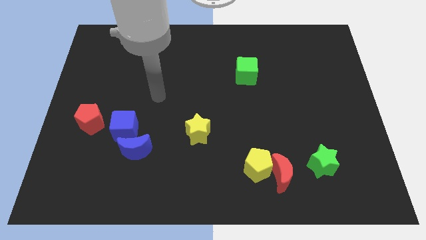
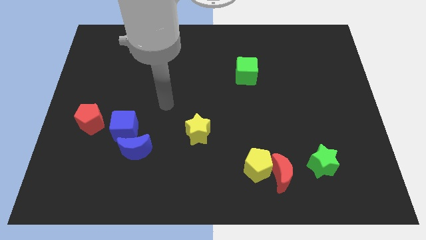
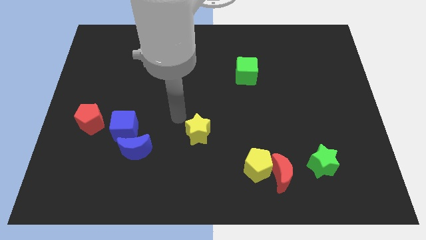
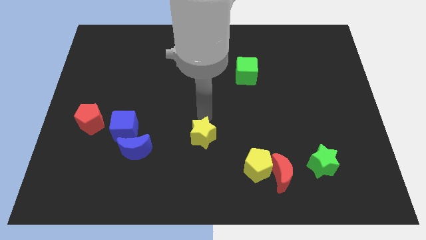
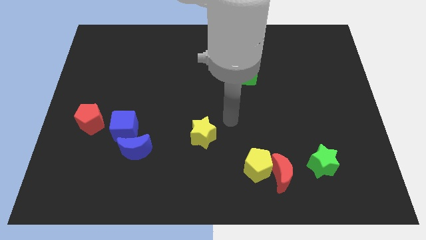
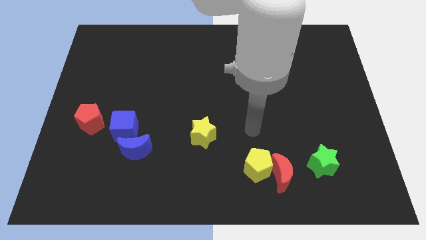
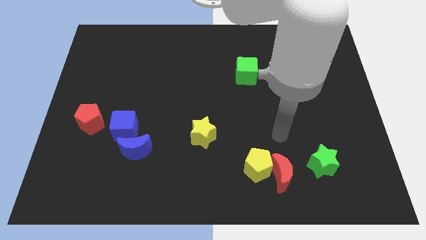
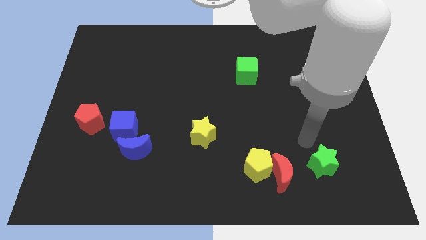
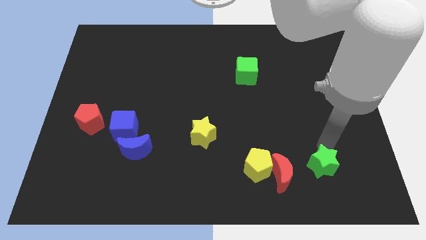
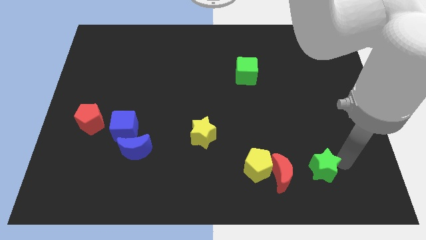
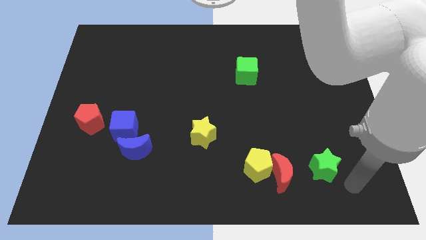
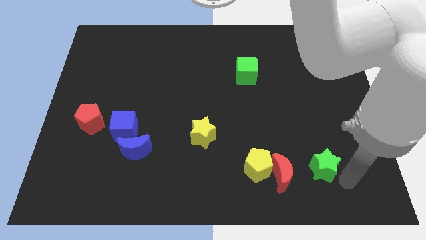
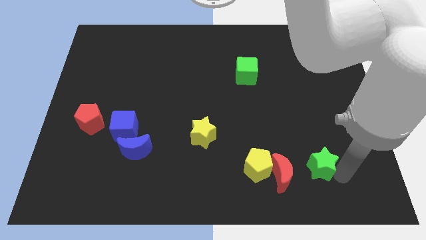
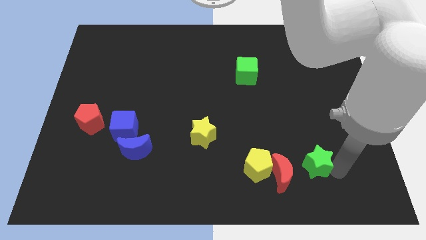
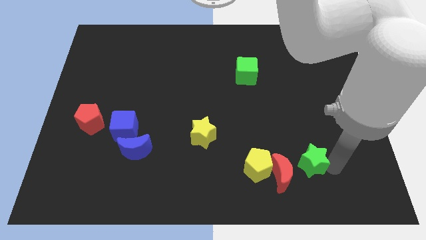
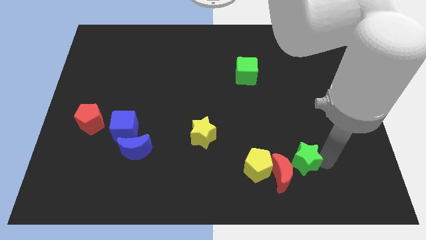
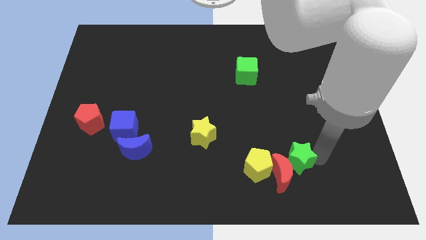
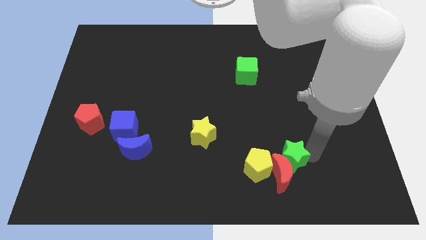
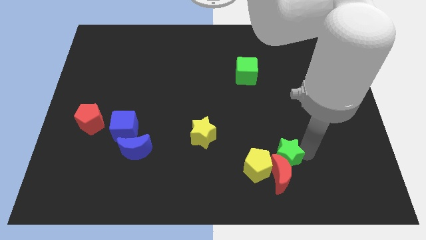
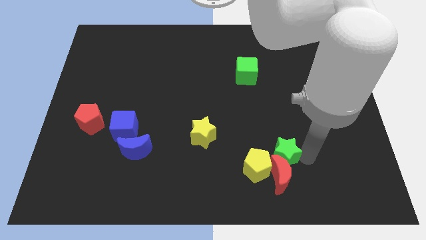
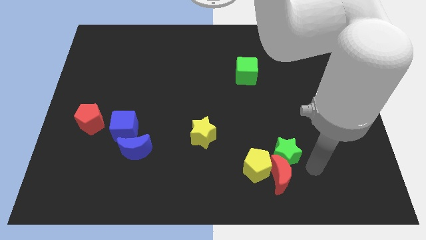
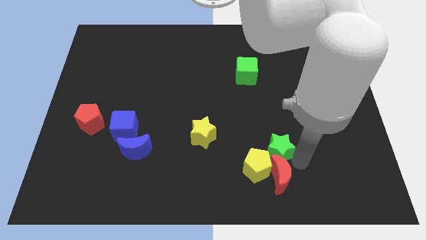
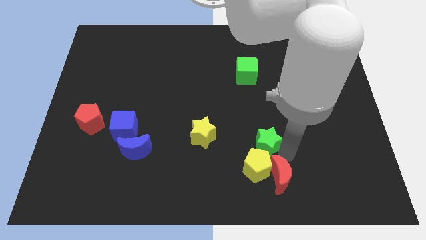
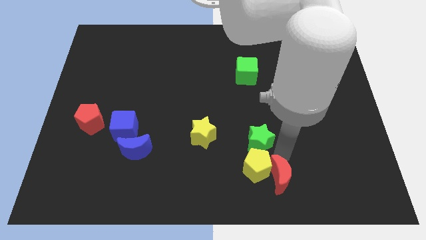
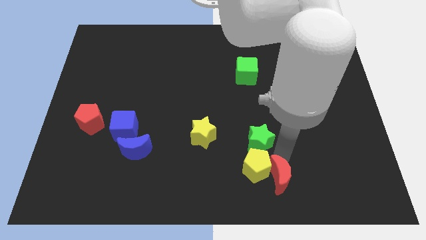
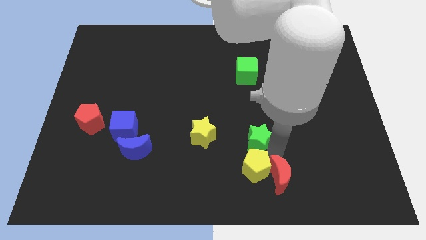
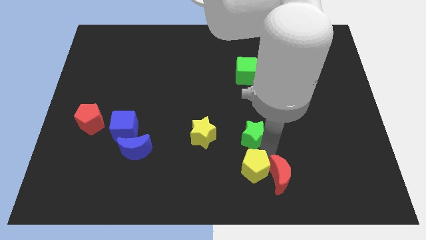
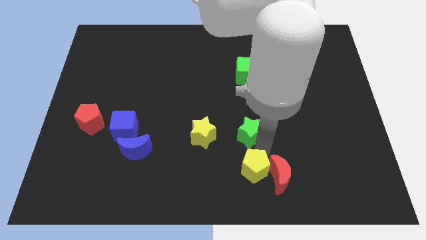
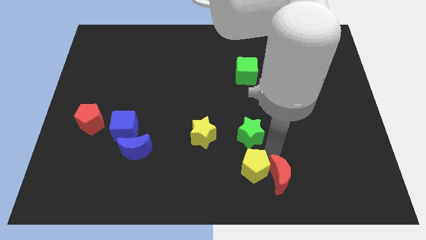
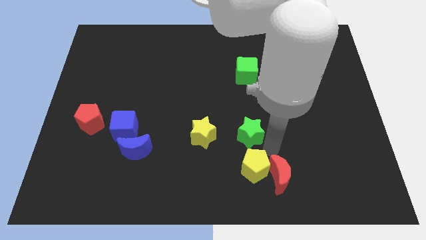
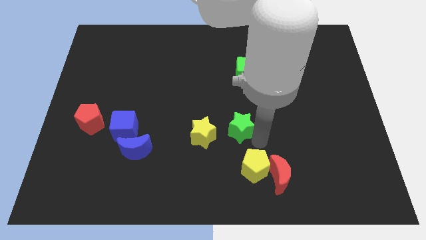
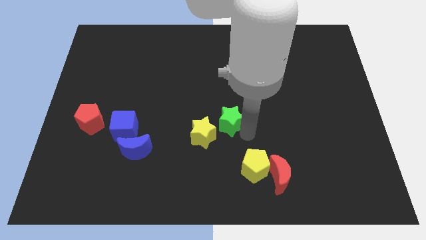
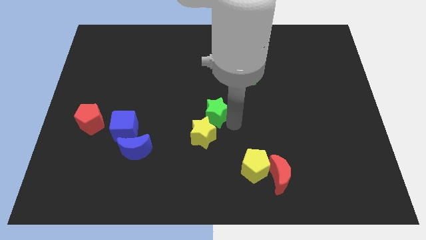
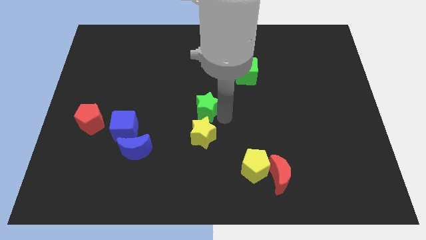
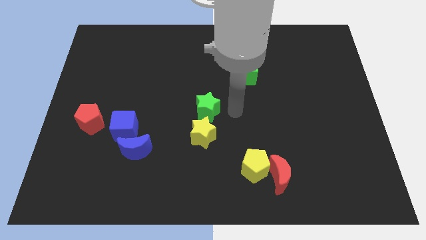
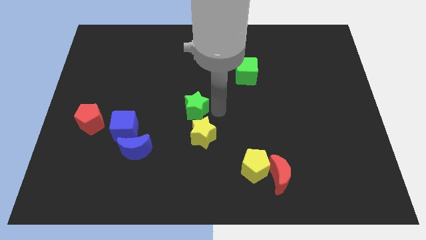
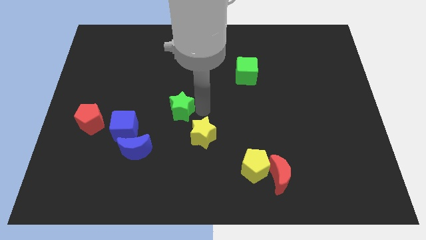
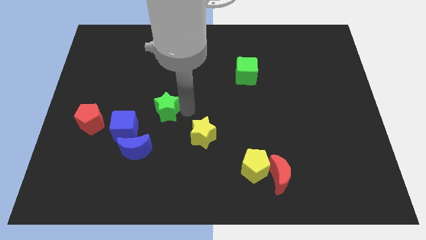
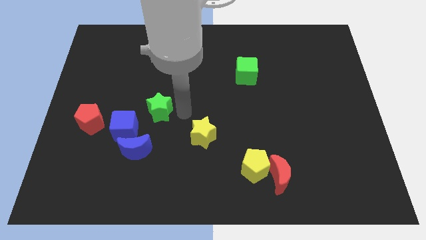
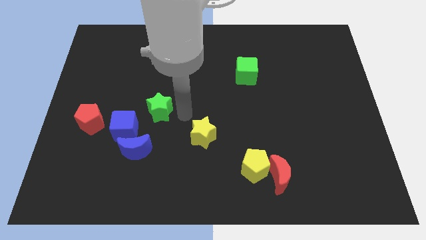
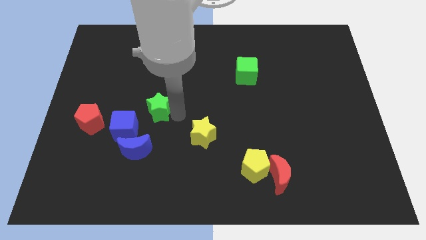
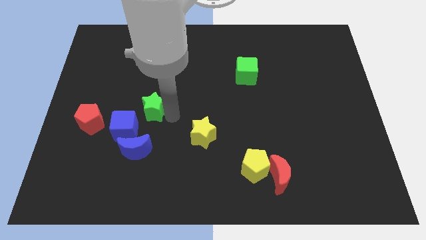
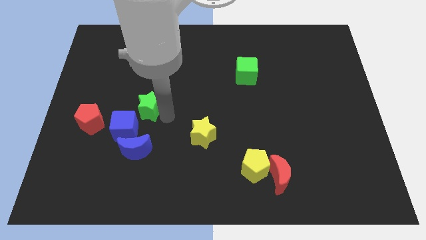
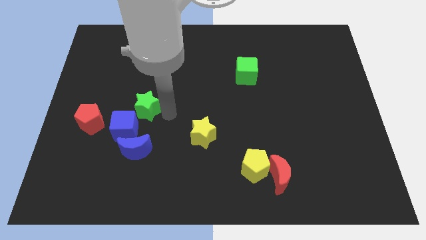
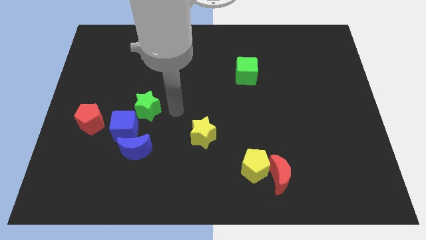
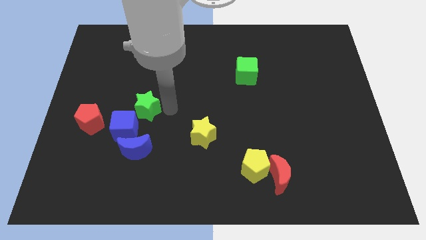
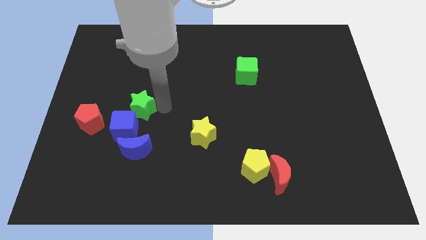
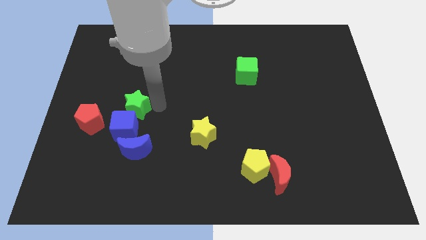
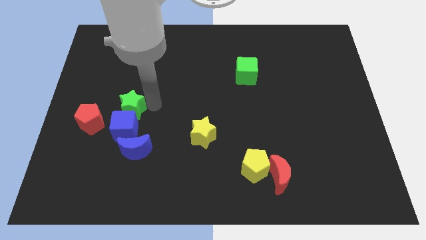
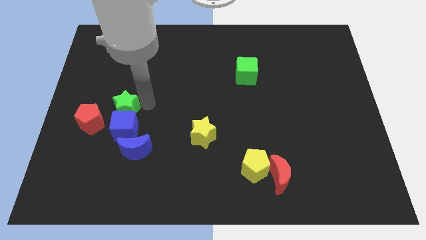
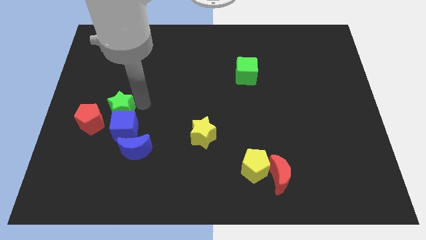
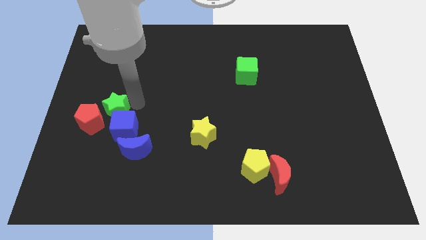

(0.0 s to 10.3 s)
move the green star close to the red pentagon

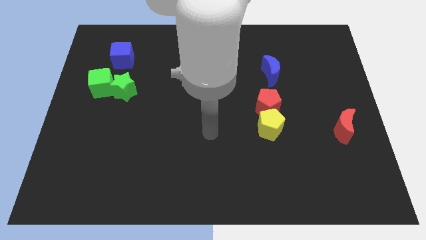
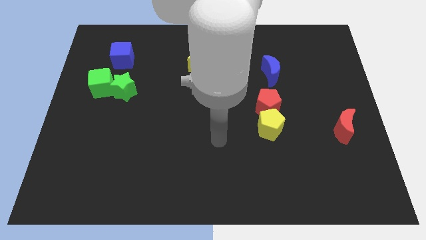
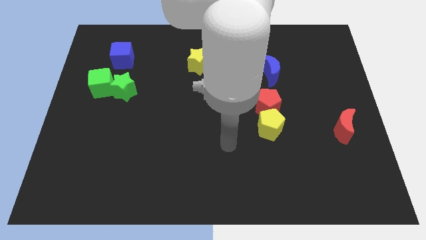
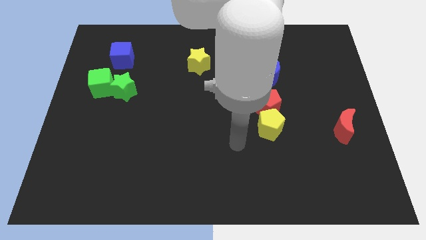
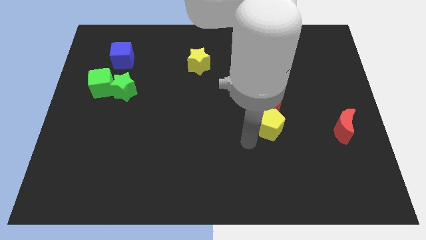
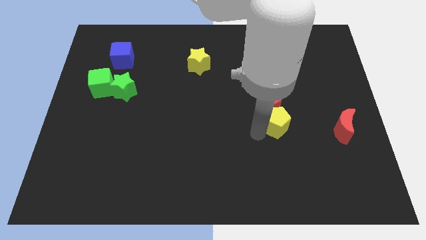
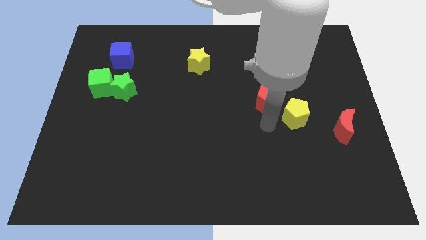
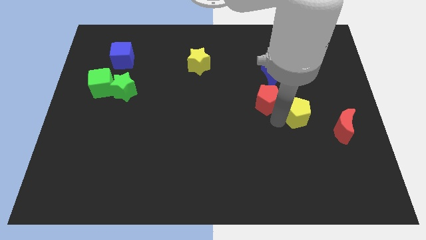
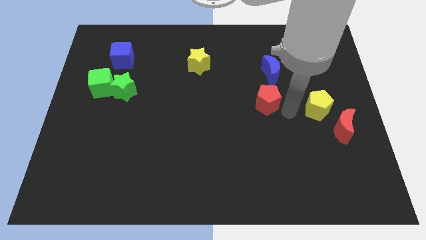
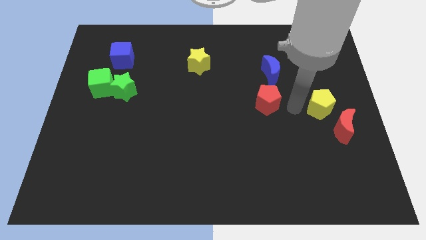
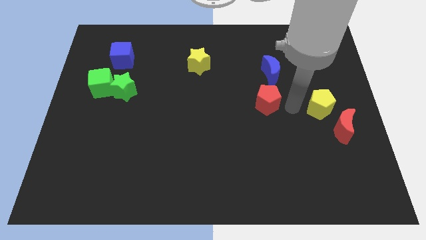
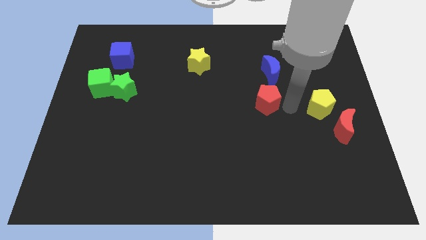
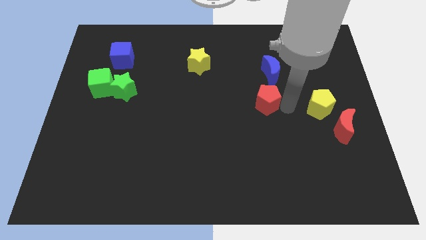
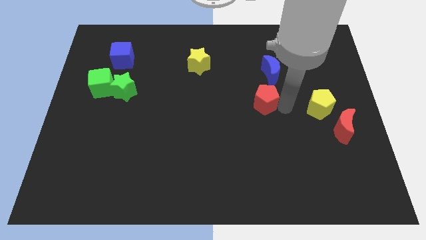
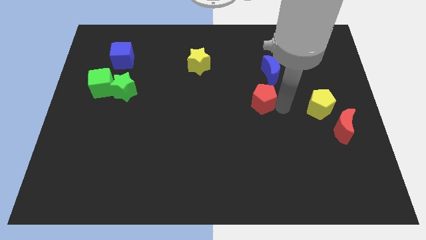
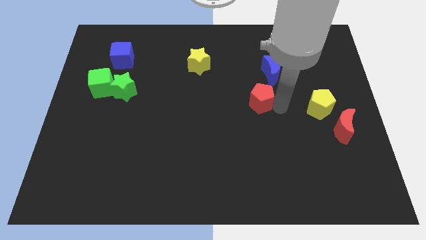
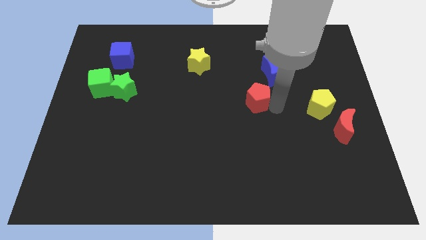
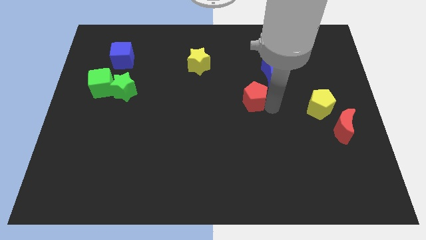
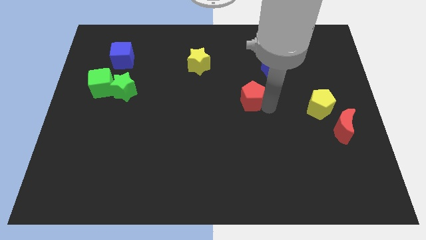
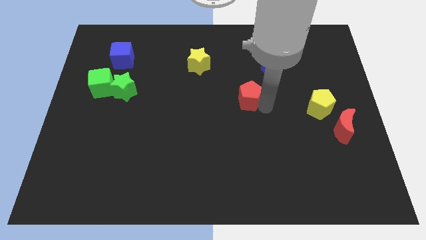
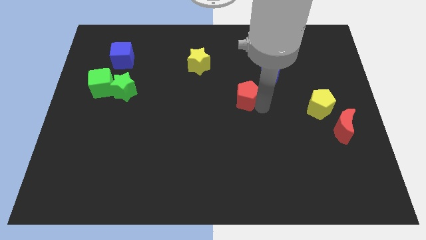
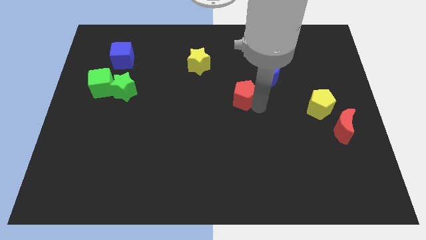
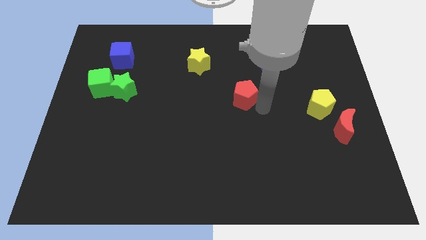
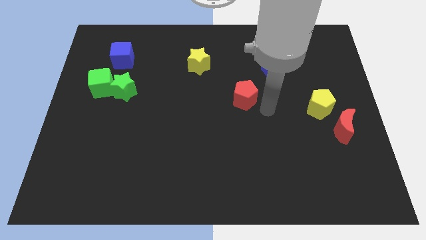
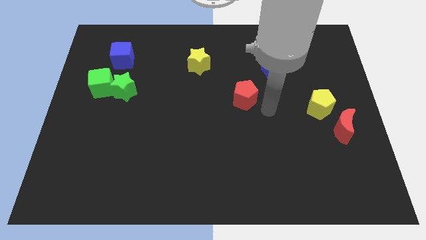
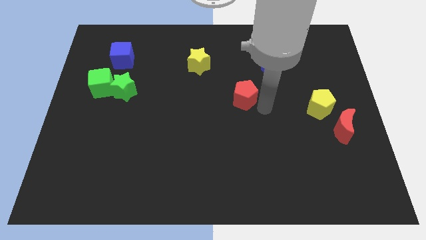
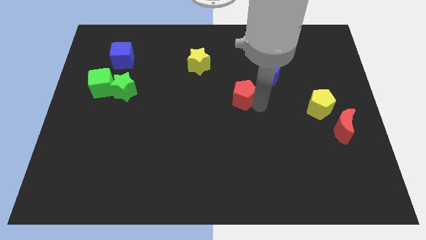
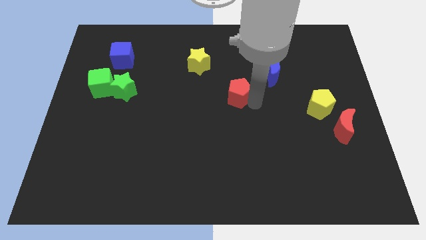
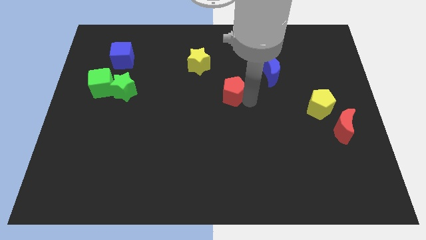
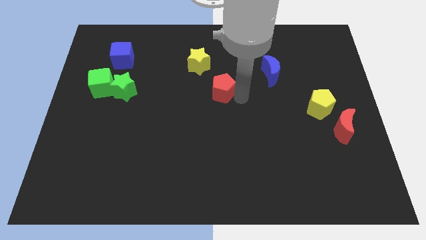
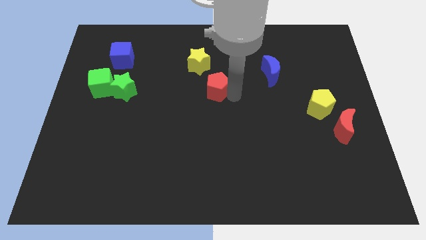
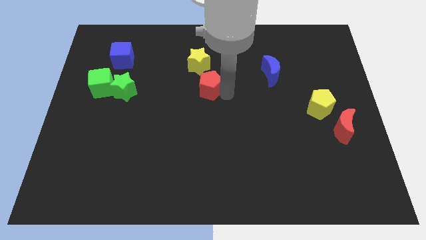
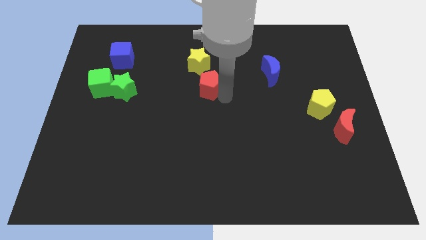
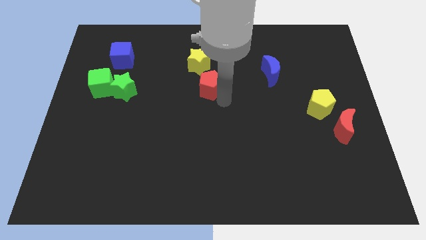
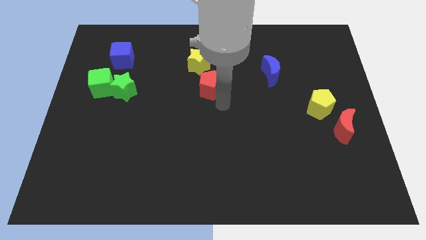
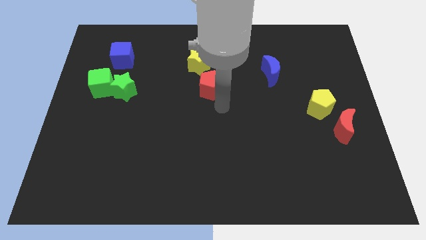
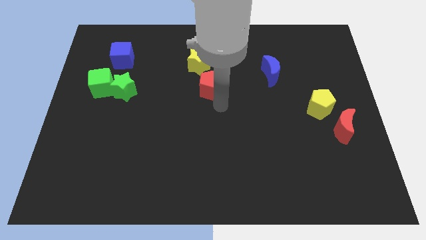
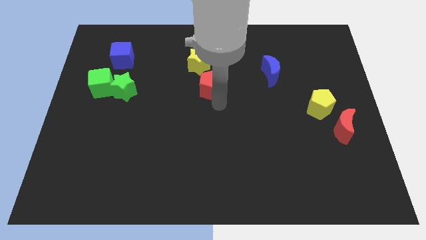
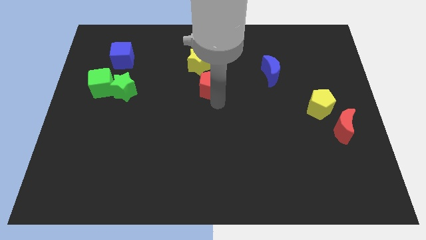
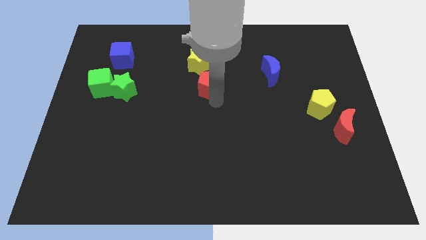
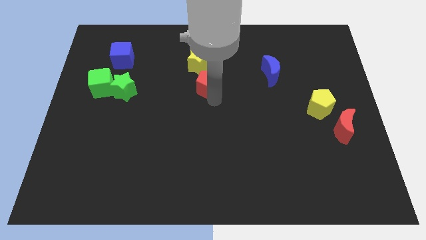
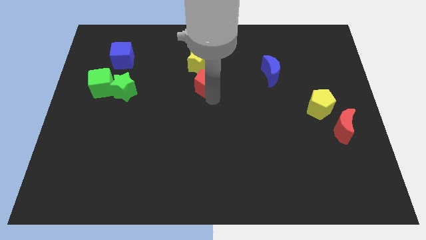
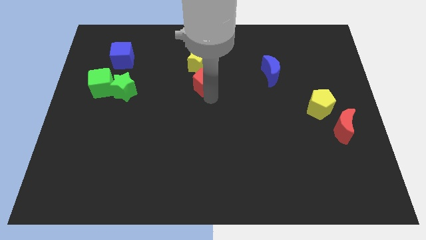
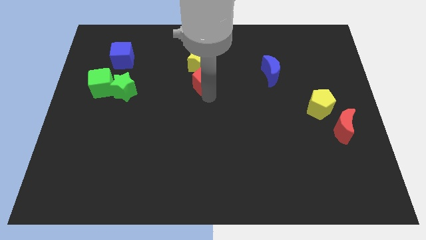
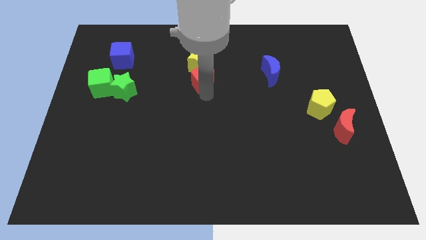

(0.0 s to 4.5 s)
push the red pentagon to the yellow star
